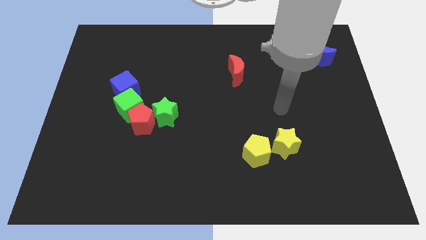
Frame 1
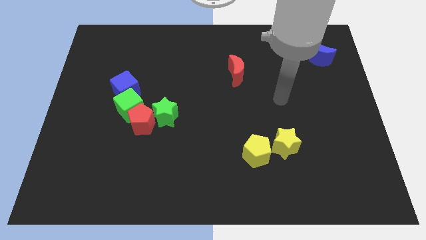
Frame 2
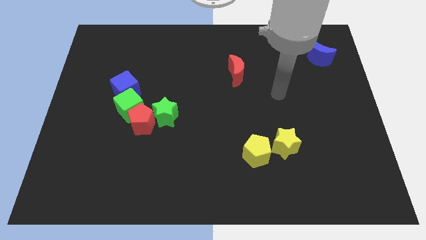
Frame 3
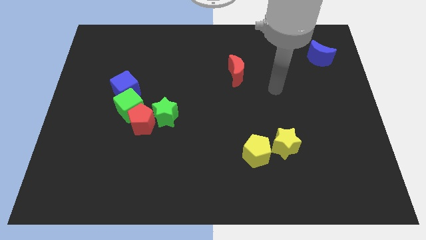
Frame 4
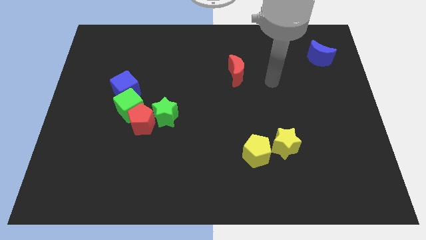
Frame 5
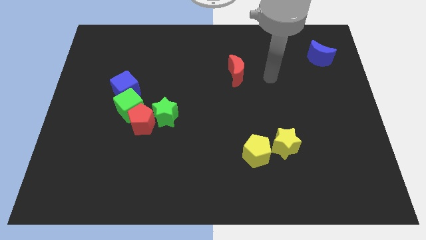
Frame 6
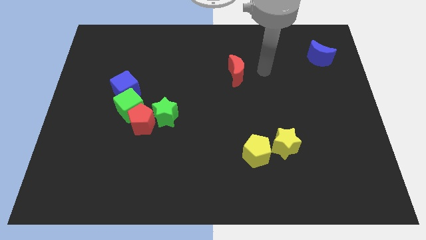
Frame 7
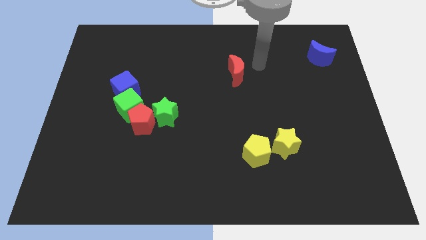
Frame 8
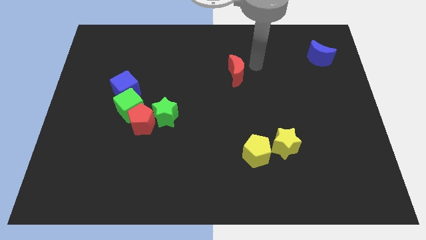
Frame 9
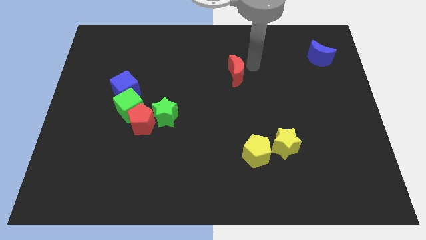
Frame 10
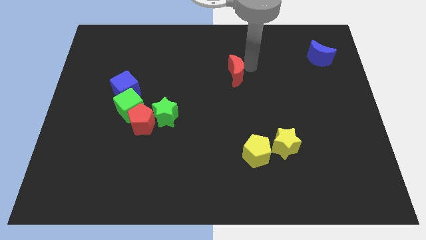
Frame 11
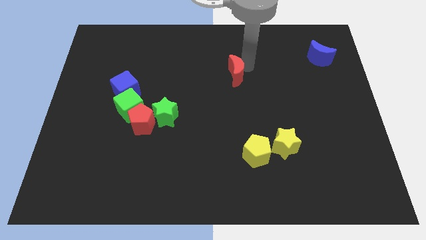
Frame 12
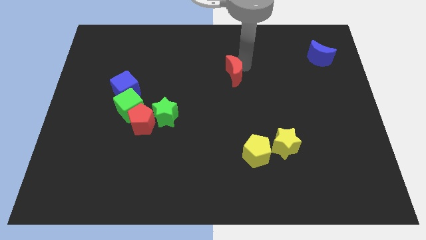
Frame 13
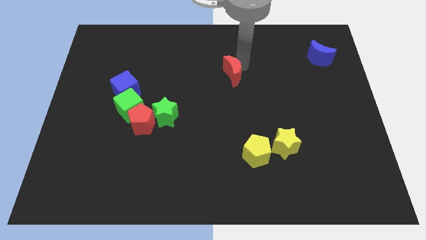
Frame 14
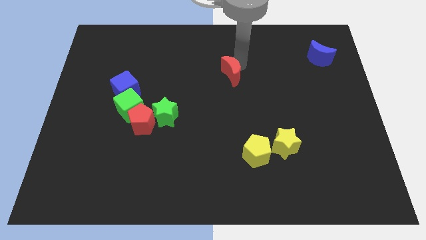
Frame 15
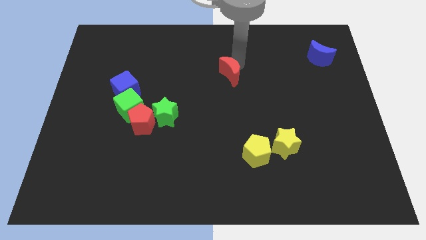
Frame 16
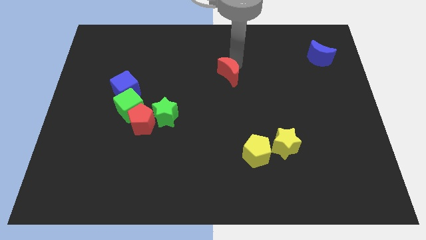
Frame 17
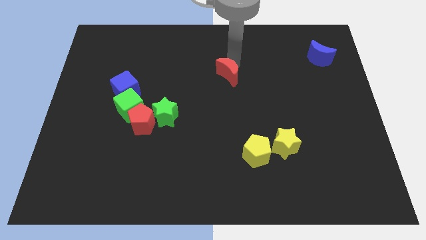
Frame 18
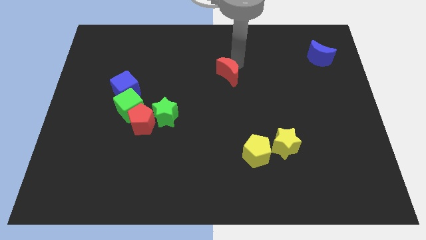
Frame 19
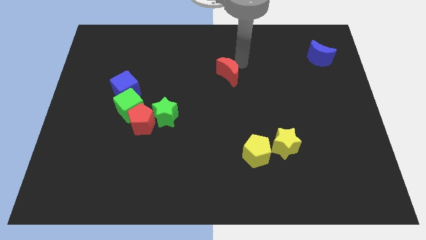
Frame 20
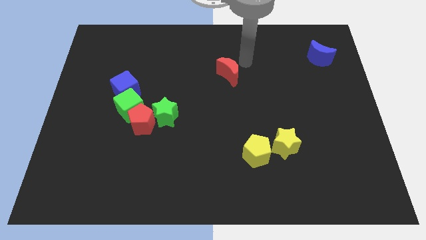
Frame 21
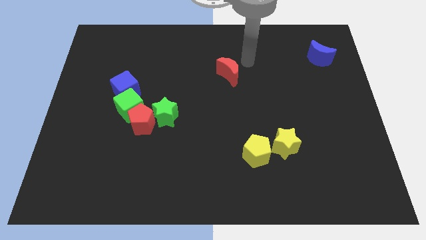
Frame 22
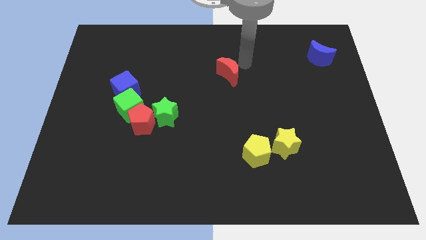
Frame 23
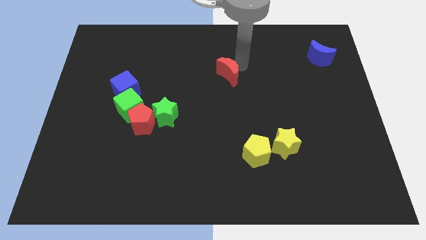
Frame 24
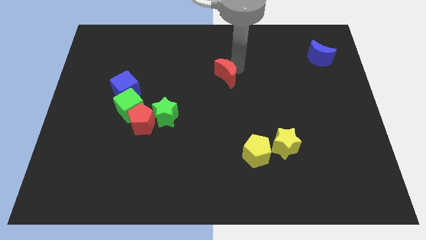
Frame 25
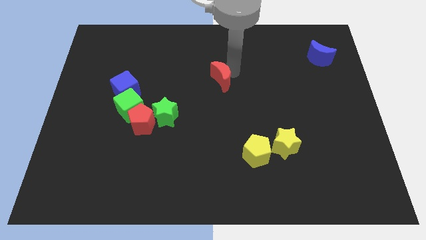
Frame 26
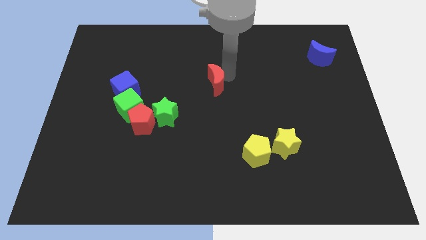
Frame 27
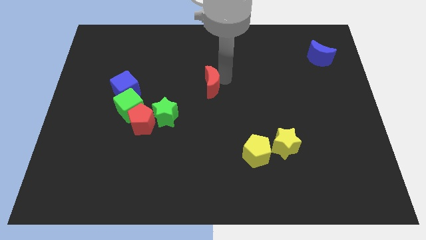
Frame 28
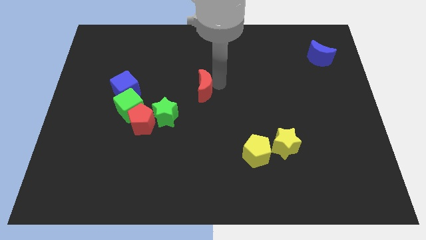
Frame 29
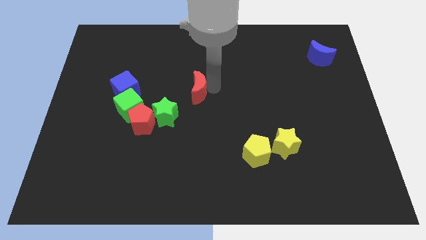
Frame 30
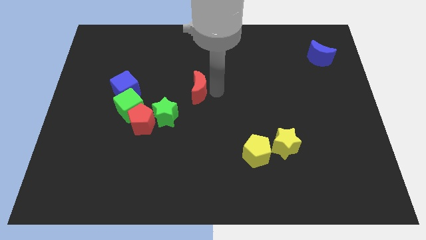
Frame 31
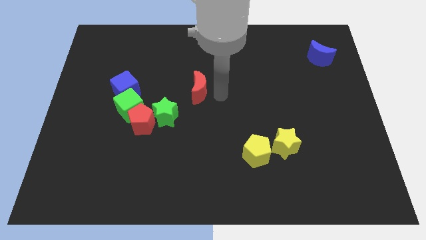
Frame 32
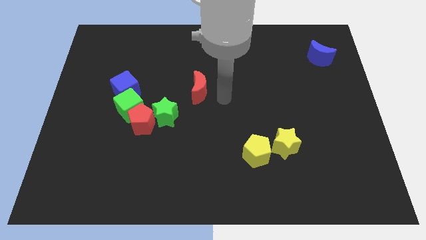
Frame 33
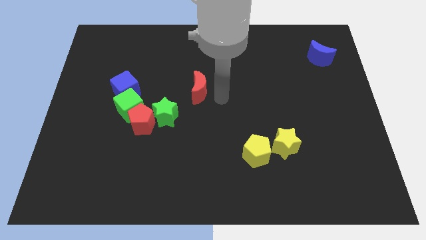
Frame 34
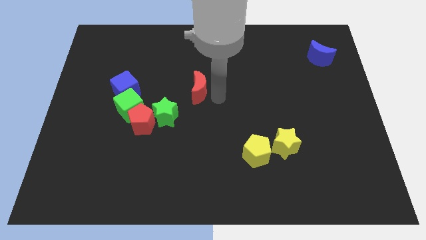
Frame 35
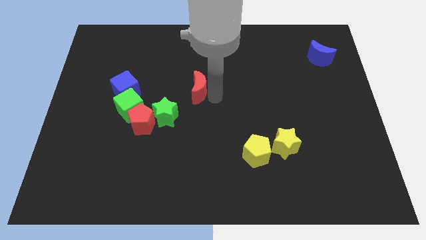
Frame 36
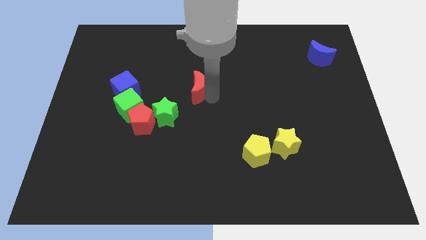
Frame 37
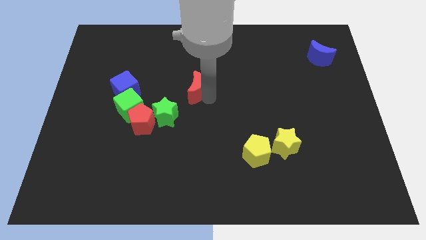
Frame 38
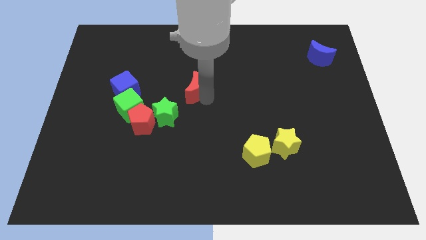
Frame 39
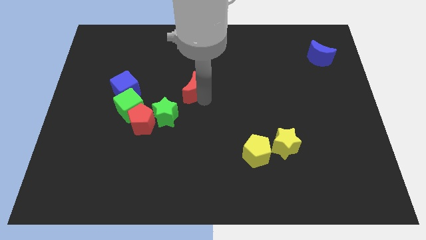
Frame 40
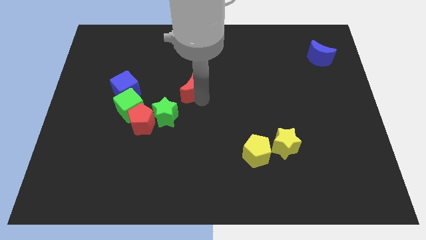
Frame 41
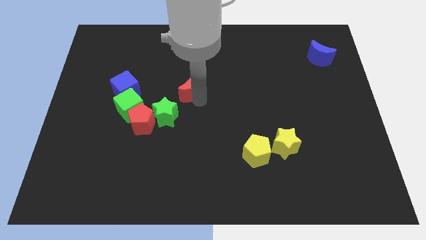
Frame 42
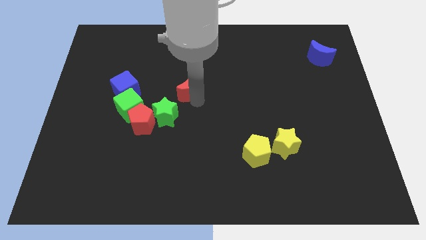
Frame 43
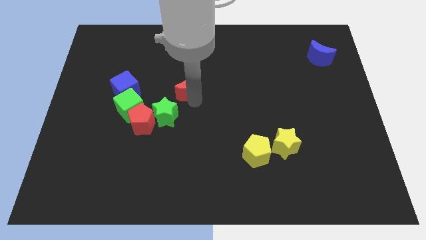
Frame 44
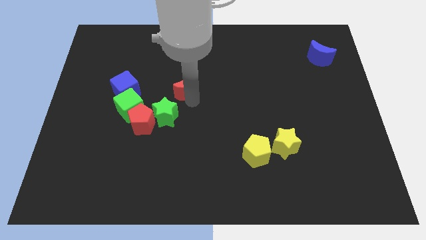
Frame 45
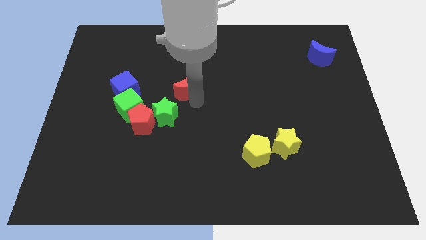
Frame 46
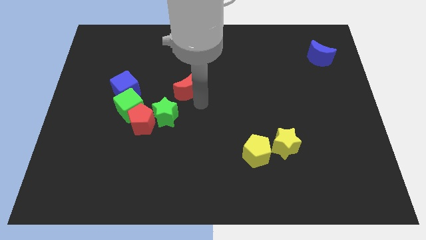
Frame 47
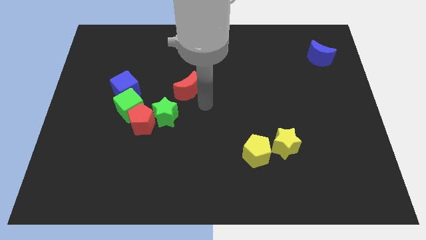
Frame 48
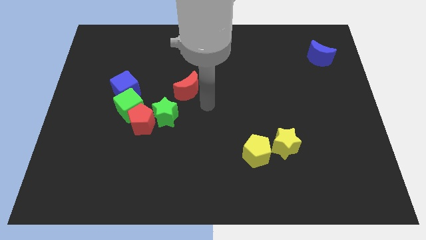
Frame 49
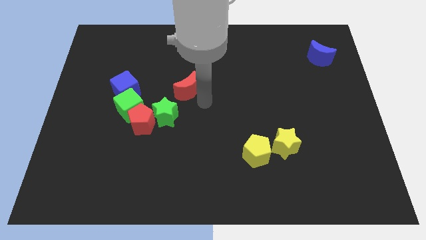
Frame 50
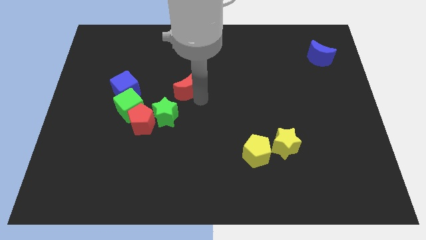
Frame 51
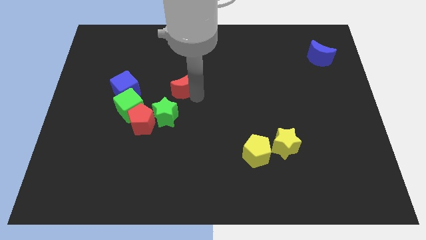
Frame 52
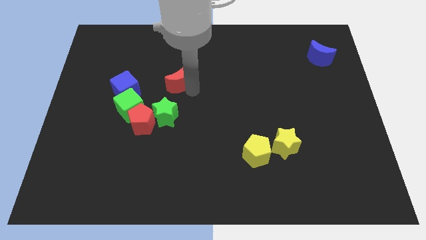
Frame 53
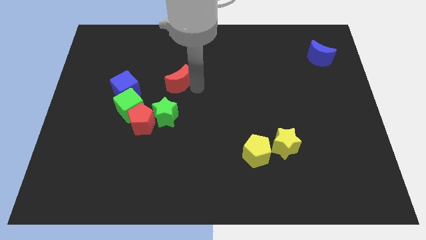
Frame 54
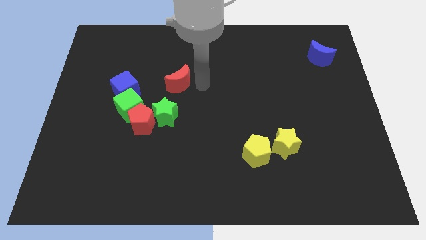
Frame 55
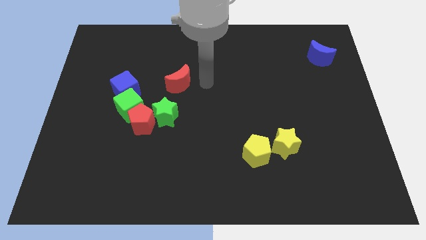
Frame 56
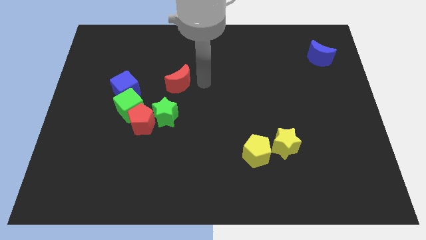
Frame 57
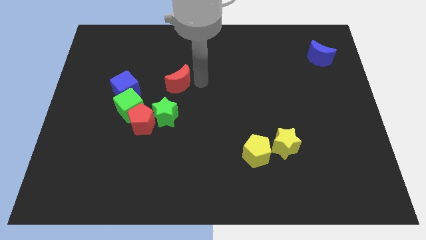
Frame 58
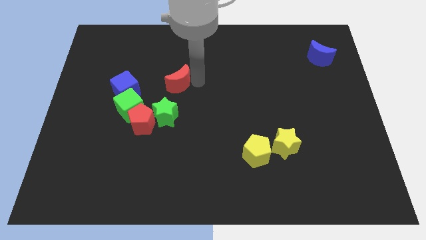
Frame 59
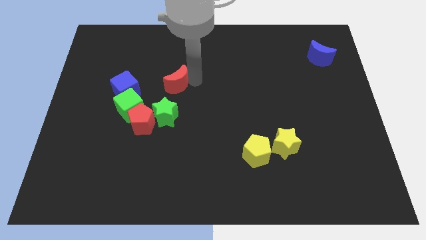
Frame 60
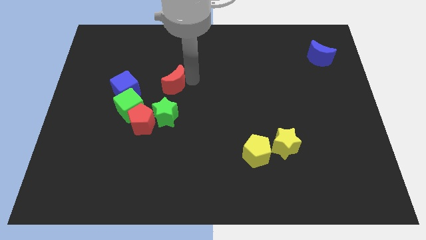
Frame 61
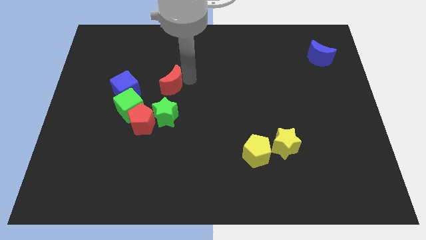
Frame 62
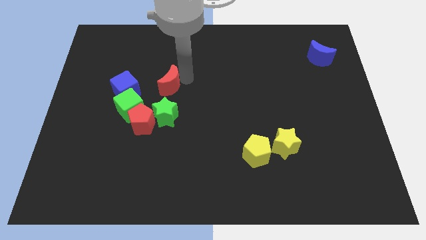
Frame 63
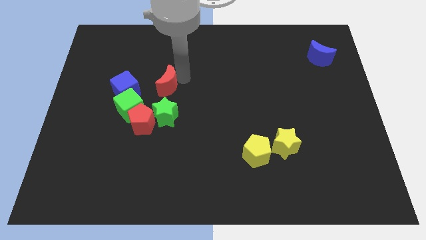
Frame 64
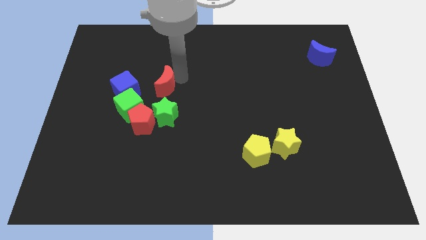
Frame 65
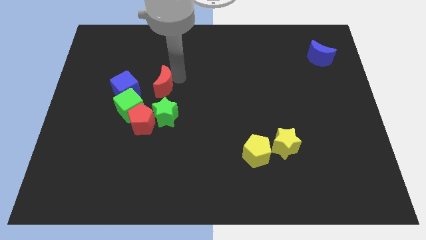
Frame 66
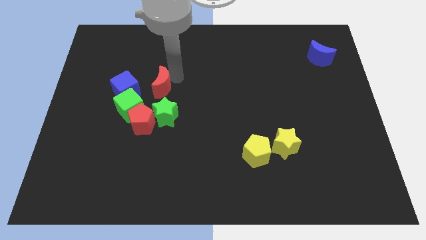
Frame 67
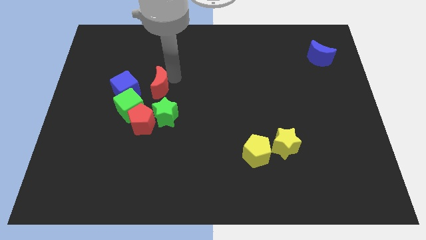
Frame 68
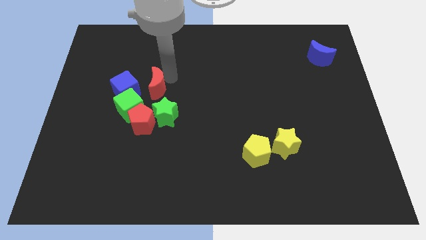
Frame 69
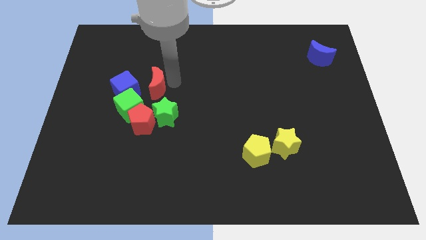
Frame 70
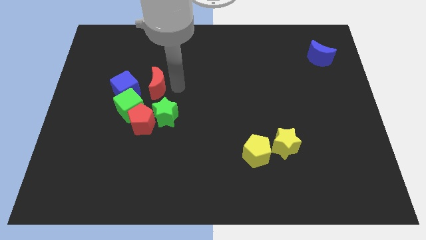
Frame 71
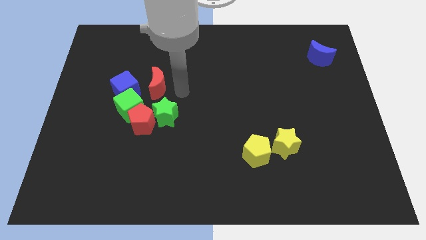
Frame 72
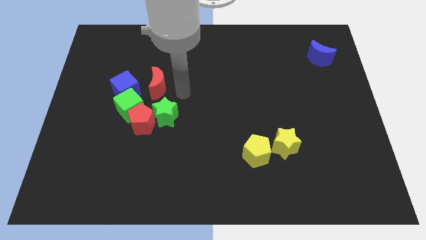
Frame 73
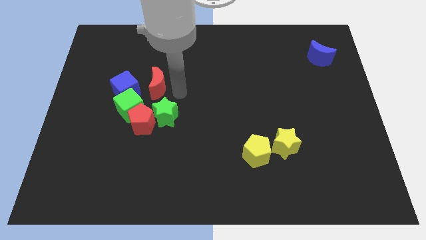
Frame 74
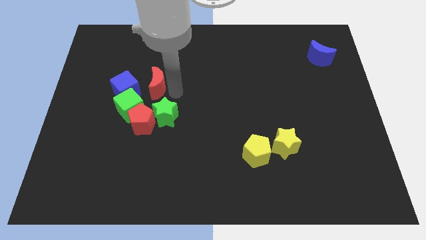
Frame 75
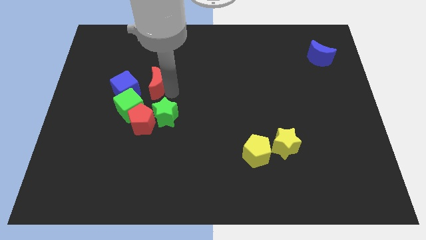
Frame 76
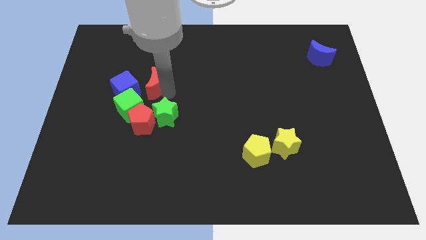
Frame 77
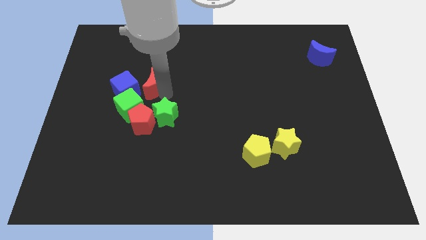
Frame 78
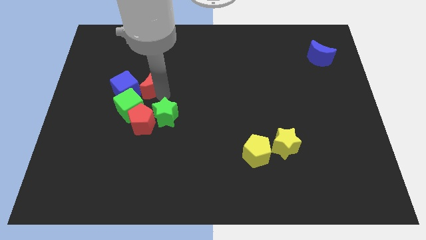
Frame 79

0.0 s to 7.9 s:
slide the red moon to the left

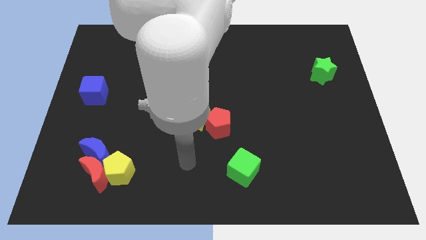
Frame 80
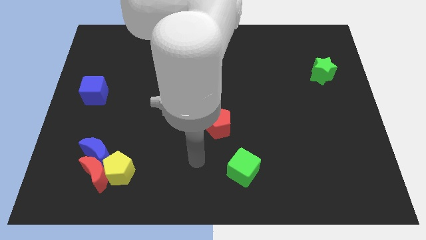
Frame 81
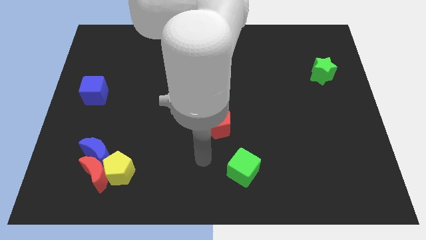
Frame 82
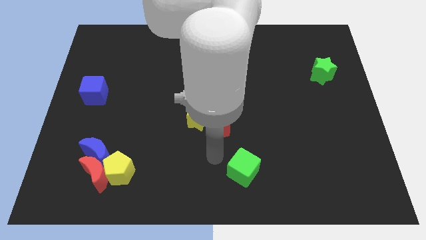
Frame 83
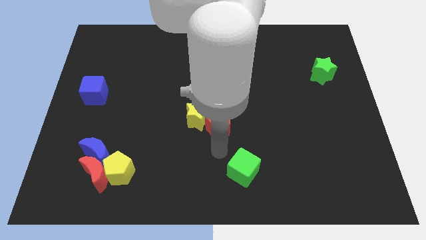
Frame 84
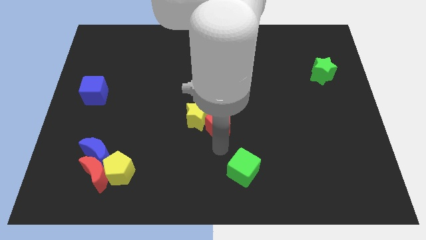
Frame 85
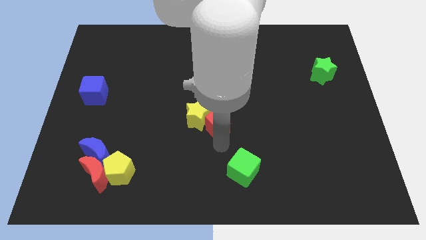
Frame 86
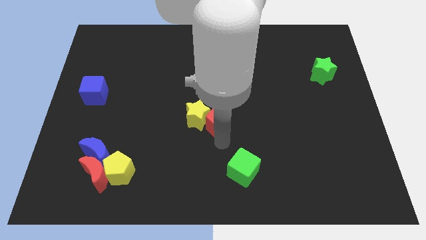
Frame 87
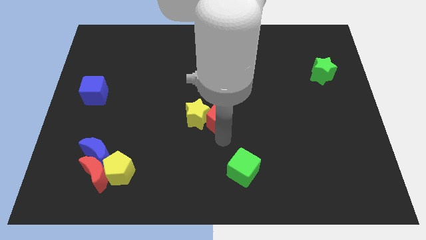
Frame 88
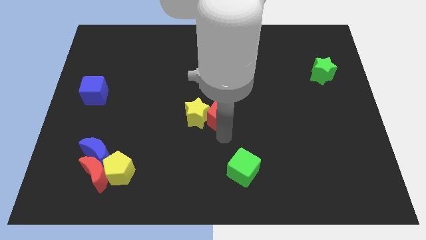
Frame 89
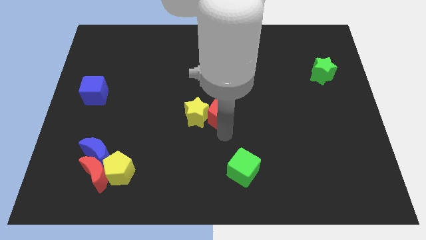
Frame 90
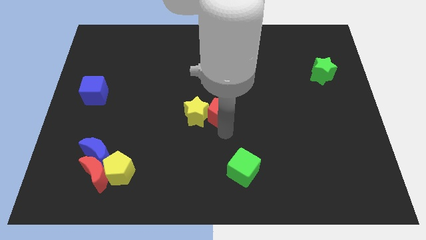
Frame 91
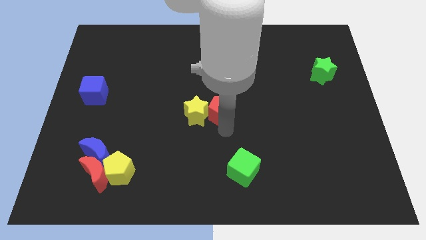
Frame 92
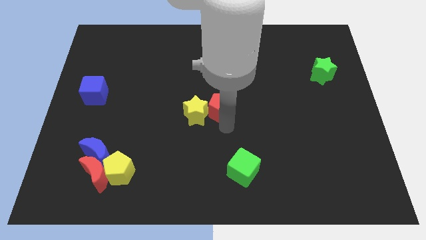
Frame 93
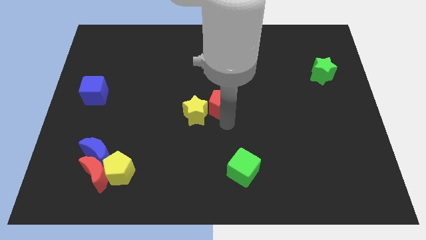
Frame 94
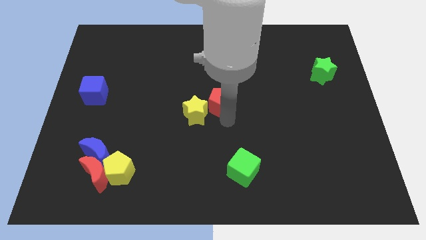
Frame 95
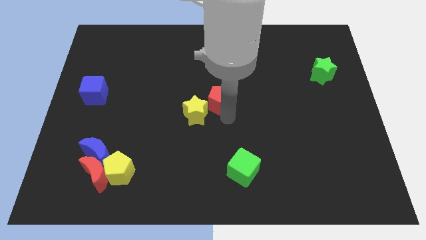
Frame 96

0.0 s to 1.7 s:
move the red pentagon up a little bit
